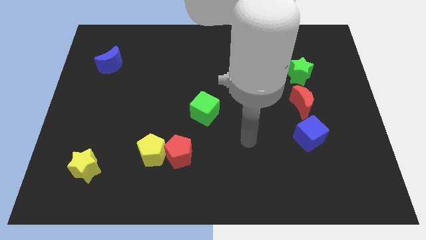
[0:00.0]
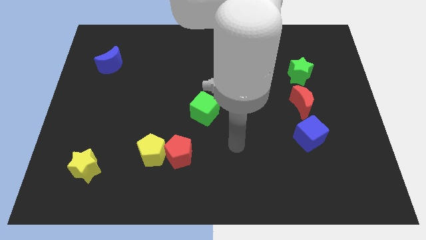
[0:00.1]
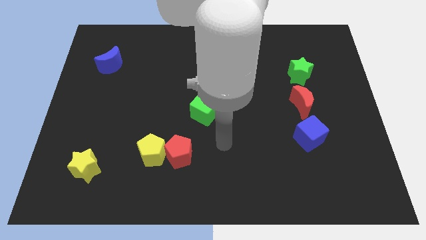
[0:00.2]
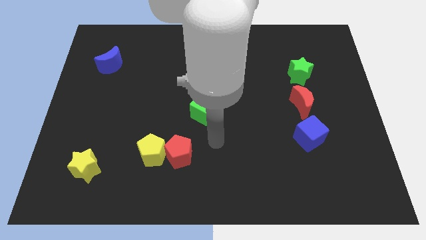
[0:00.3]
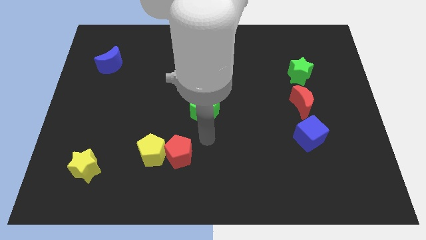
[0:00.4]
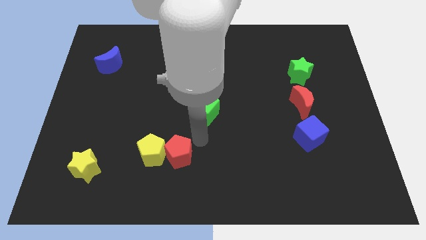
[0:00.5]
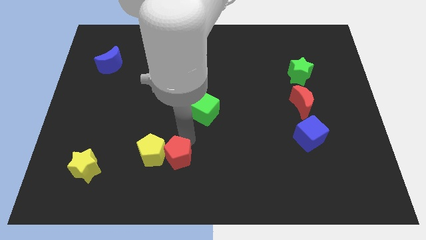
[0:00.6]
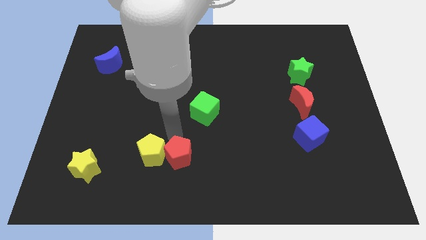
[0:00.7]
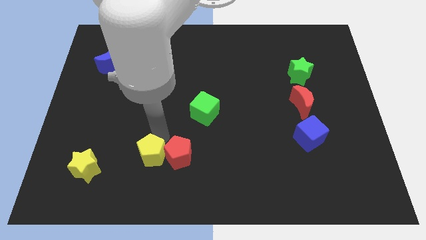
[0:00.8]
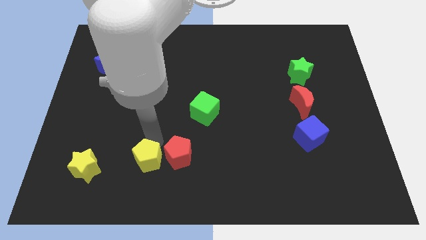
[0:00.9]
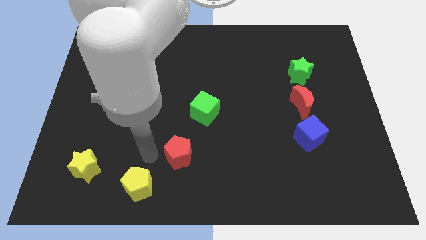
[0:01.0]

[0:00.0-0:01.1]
pull the red pentagon apart from the yellow pentagon

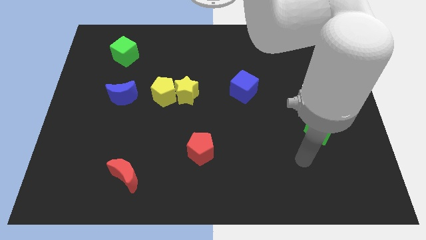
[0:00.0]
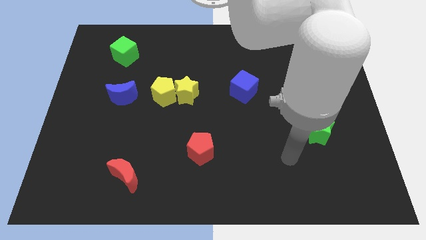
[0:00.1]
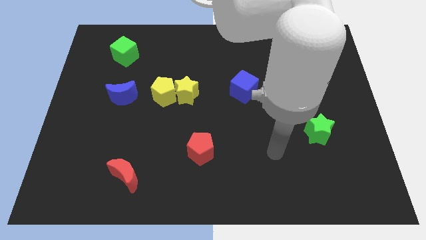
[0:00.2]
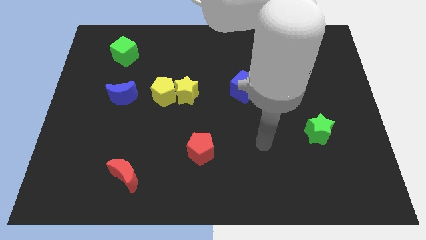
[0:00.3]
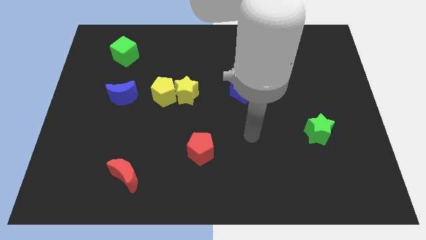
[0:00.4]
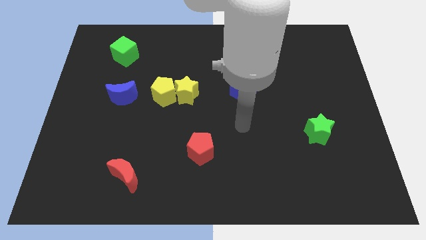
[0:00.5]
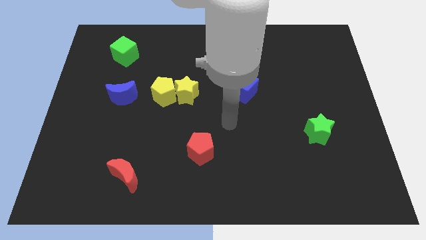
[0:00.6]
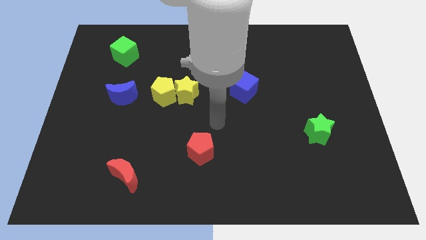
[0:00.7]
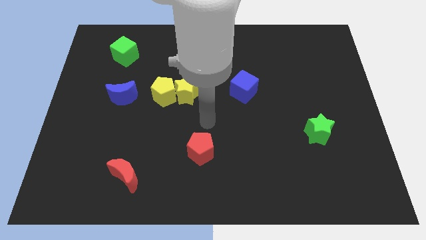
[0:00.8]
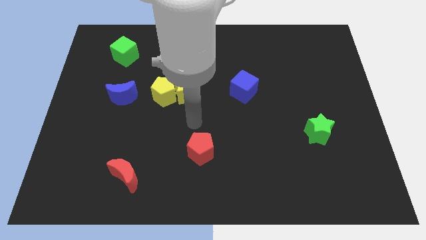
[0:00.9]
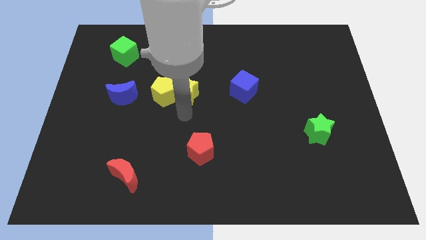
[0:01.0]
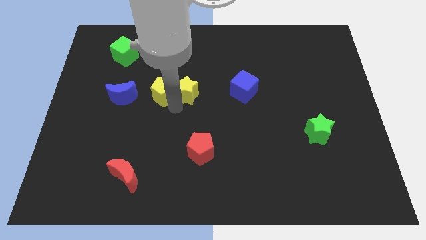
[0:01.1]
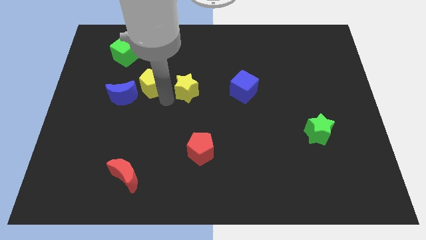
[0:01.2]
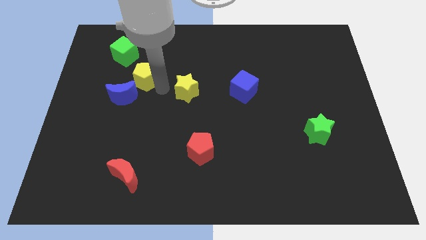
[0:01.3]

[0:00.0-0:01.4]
separate the yellow star from the yellow pentagon

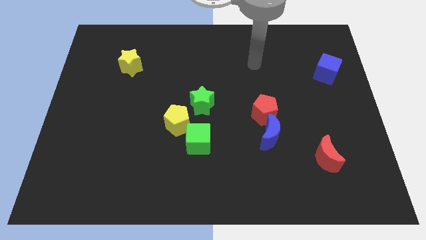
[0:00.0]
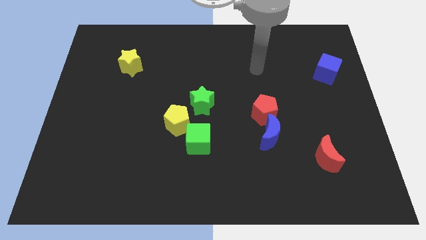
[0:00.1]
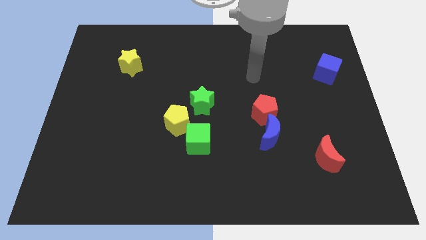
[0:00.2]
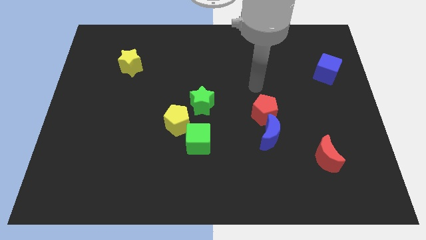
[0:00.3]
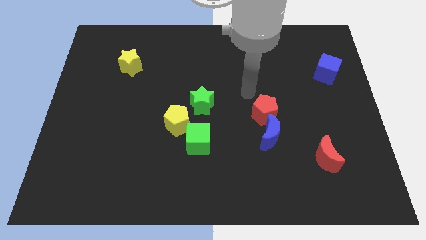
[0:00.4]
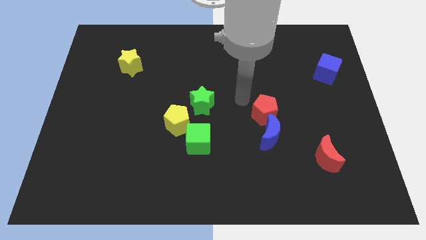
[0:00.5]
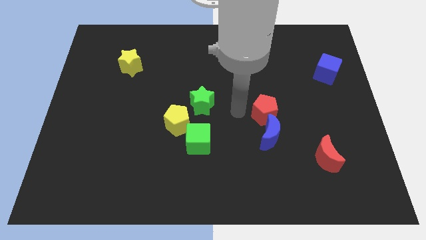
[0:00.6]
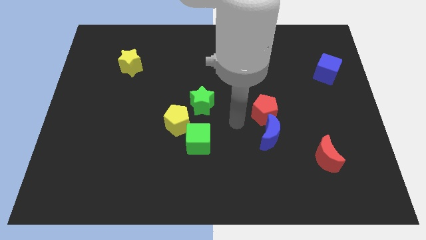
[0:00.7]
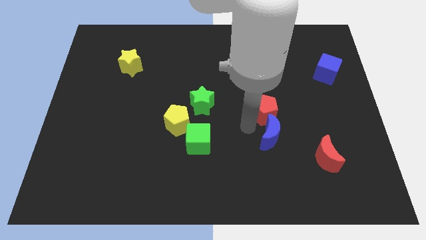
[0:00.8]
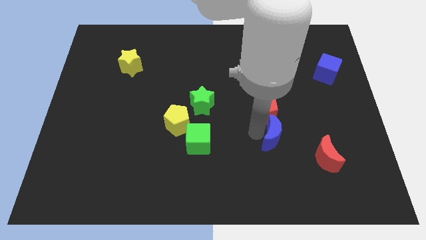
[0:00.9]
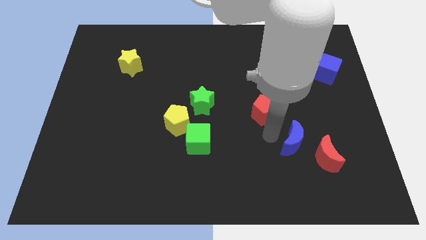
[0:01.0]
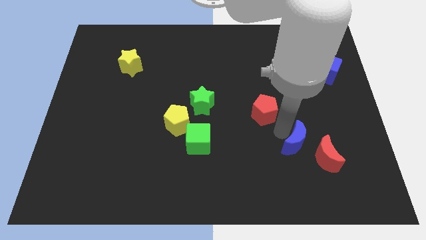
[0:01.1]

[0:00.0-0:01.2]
pull the red pentagon apart from the blue moon

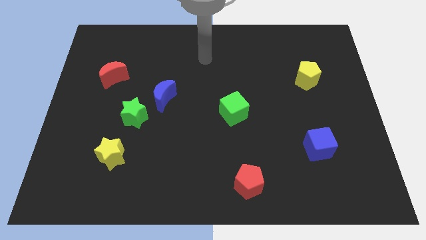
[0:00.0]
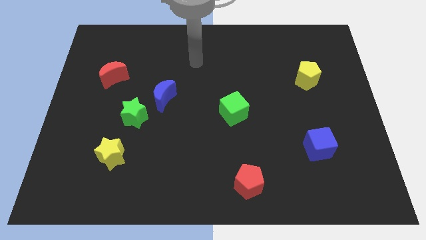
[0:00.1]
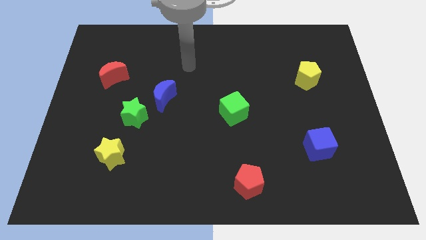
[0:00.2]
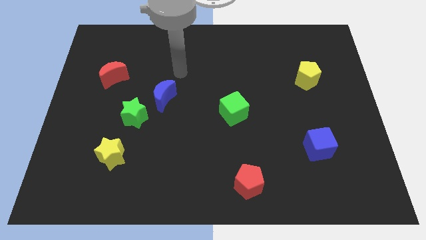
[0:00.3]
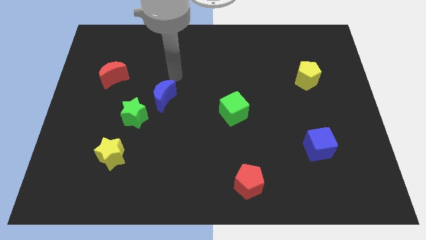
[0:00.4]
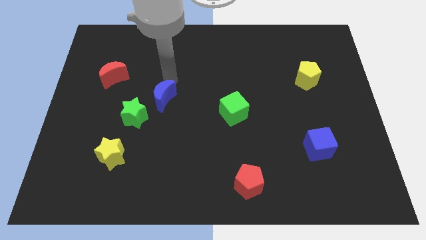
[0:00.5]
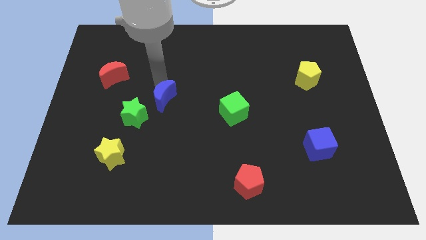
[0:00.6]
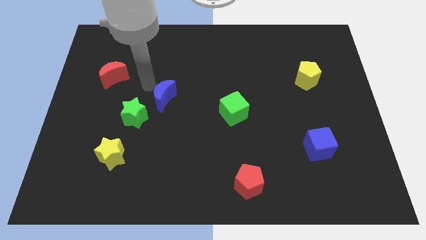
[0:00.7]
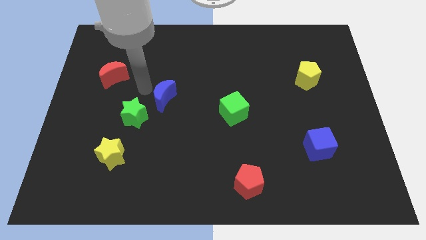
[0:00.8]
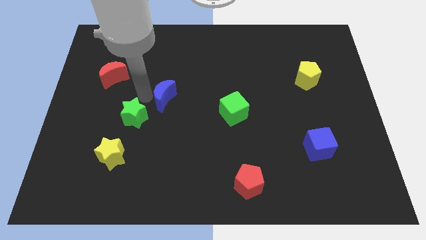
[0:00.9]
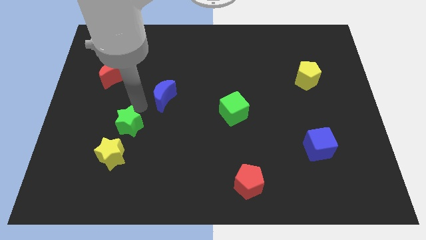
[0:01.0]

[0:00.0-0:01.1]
move the blue moon away from the green star

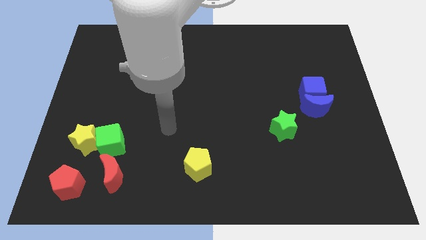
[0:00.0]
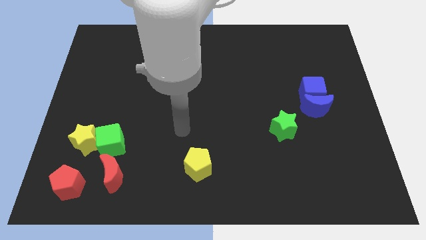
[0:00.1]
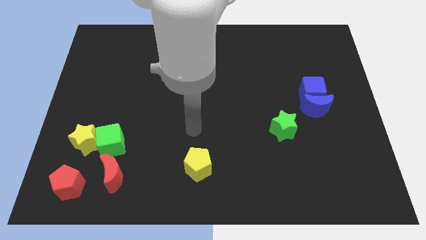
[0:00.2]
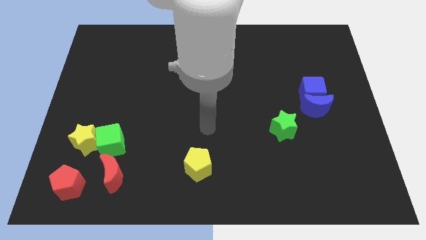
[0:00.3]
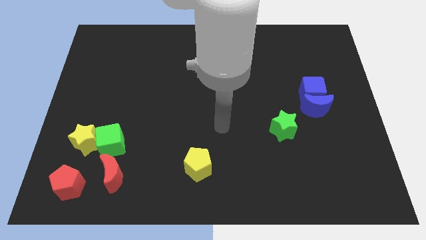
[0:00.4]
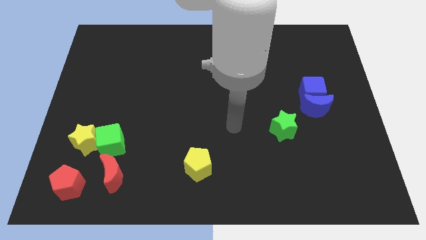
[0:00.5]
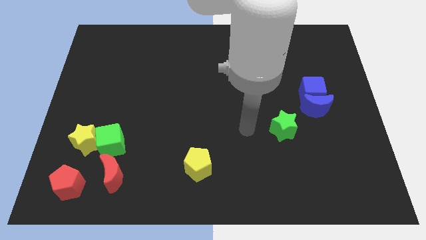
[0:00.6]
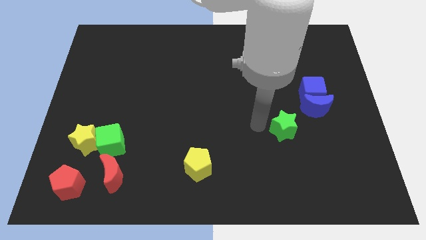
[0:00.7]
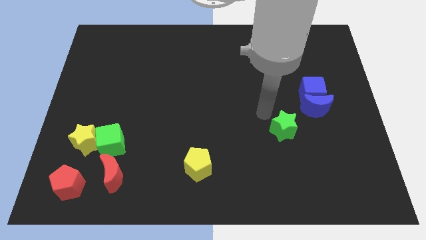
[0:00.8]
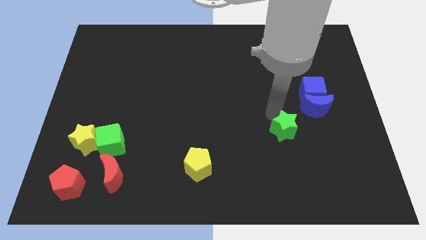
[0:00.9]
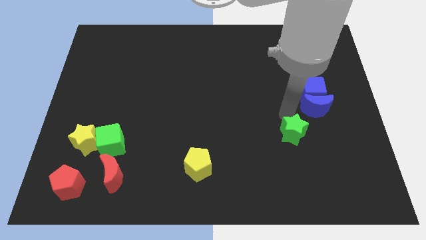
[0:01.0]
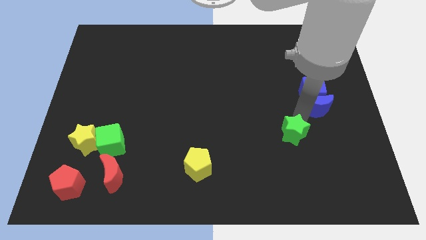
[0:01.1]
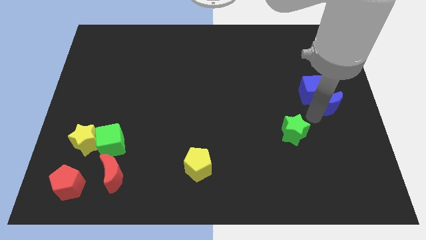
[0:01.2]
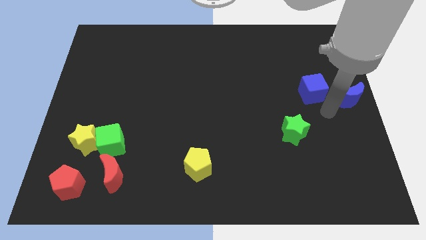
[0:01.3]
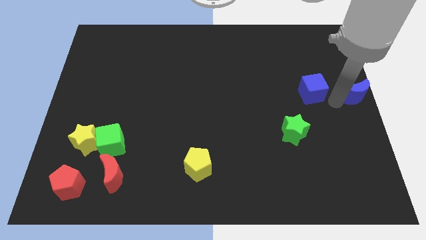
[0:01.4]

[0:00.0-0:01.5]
separate the blue cube from the blue moon

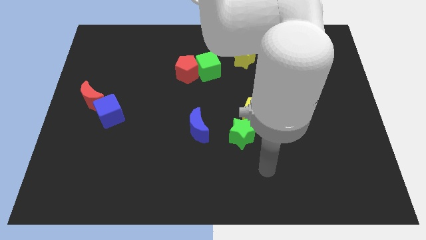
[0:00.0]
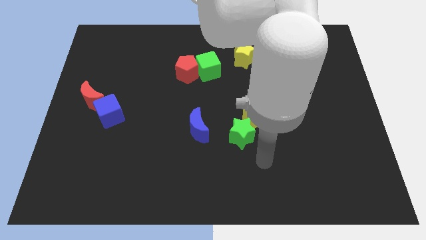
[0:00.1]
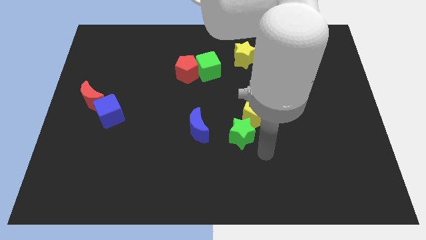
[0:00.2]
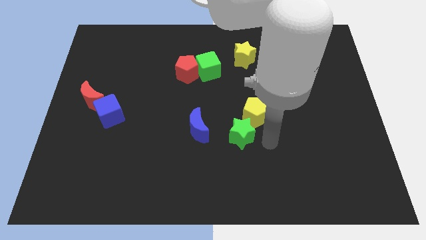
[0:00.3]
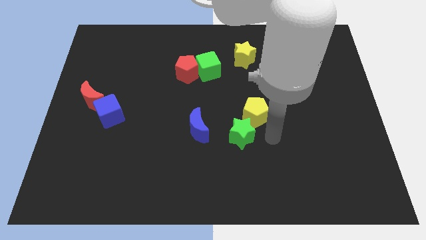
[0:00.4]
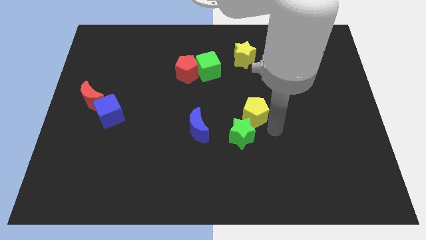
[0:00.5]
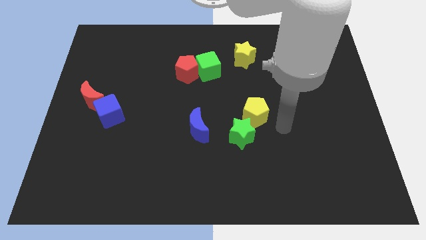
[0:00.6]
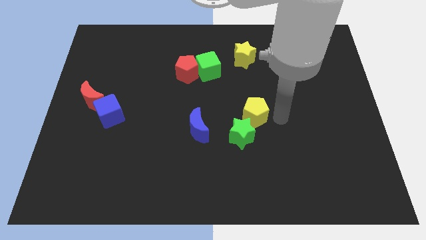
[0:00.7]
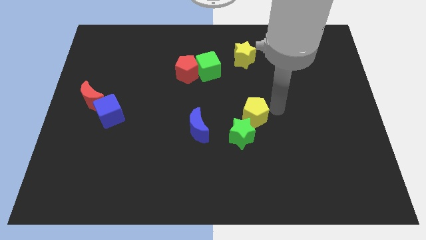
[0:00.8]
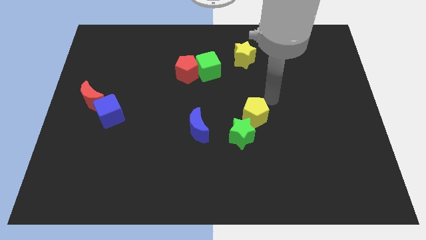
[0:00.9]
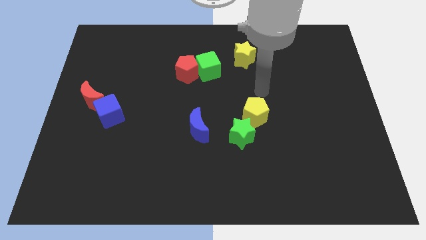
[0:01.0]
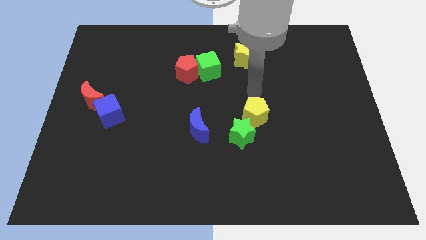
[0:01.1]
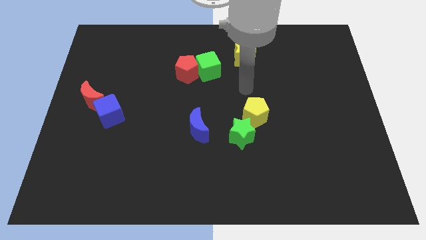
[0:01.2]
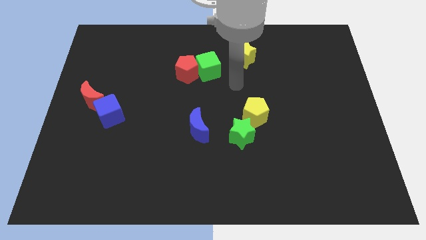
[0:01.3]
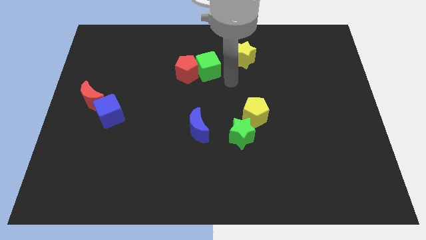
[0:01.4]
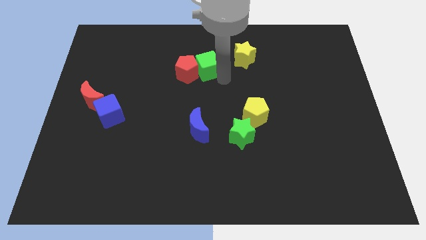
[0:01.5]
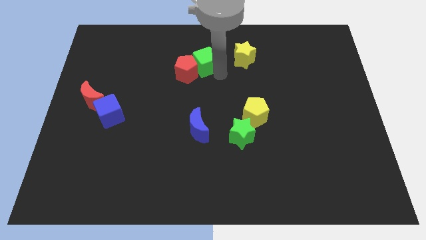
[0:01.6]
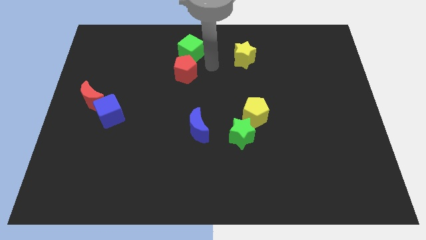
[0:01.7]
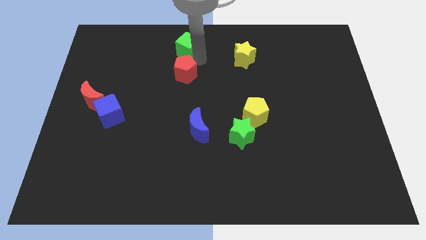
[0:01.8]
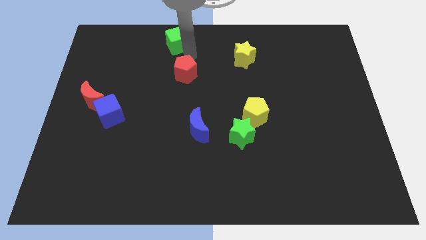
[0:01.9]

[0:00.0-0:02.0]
separate the red pentagon from the green cube

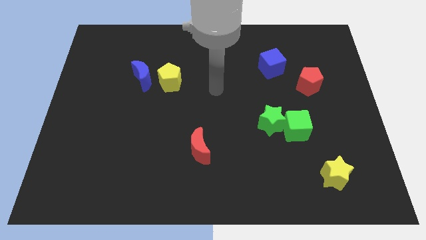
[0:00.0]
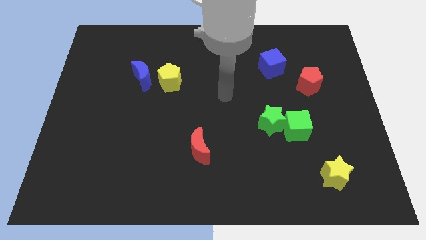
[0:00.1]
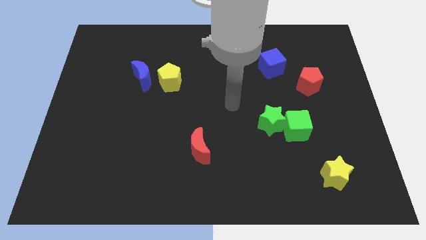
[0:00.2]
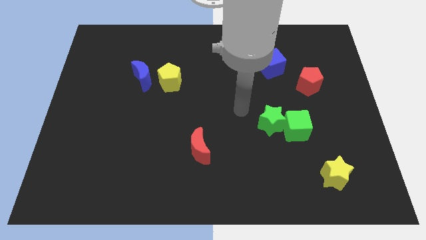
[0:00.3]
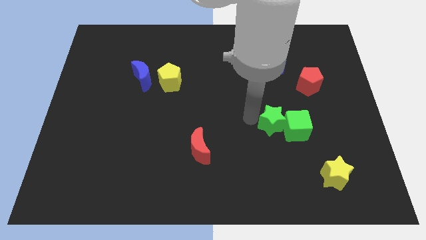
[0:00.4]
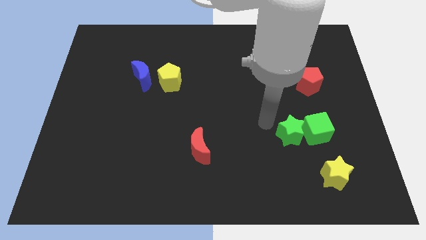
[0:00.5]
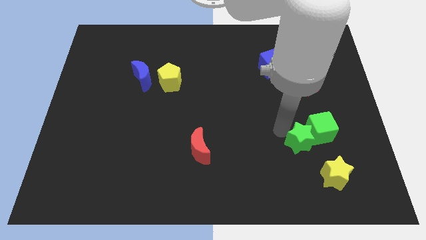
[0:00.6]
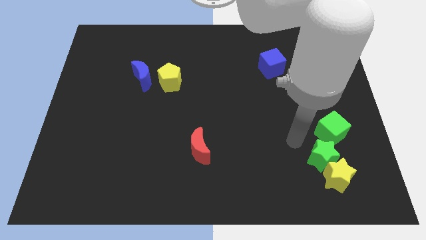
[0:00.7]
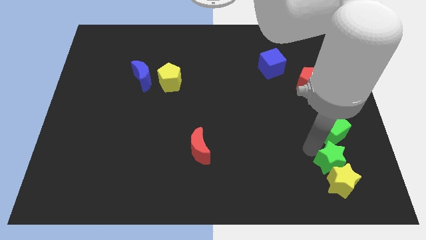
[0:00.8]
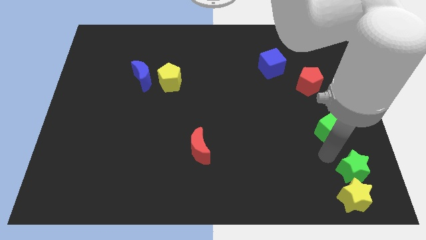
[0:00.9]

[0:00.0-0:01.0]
separate the green cube from the green star

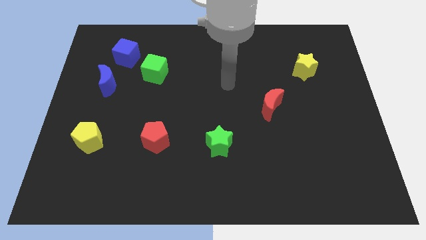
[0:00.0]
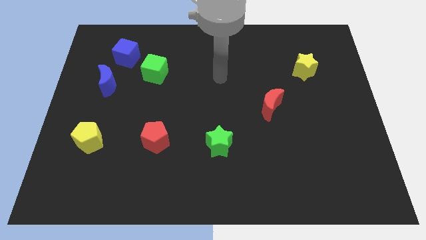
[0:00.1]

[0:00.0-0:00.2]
separate the green cube from the blue cube
